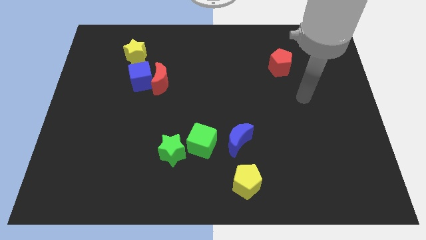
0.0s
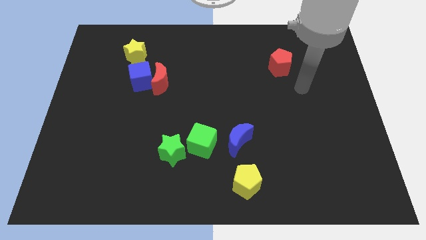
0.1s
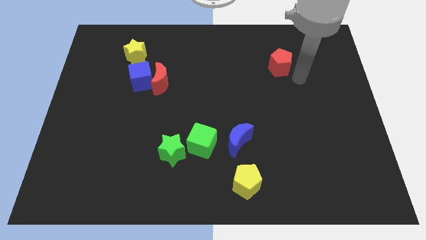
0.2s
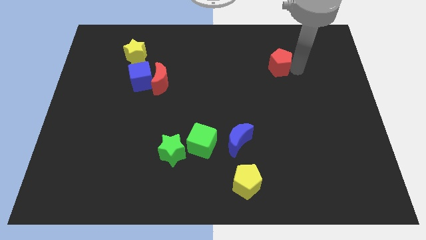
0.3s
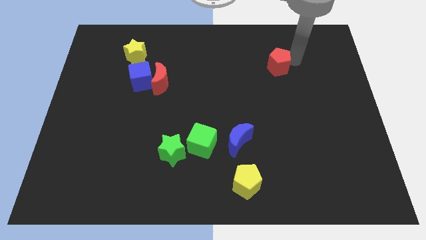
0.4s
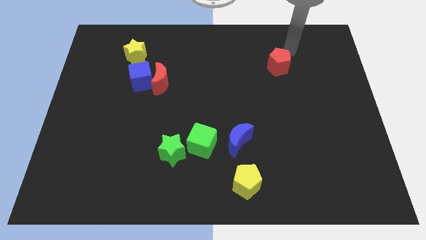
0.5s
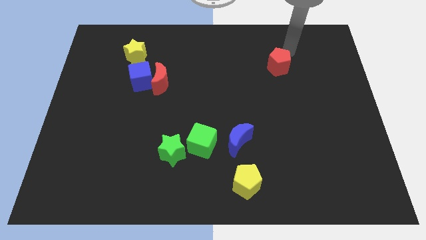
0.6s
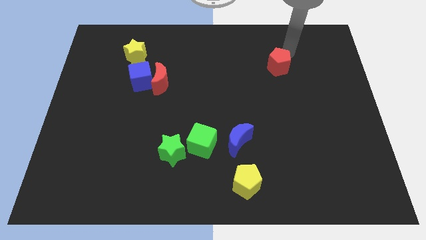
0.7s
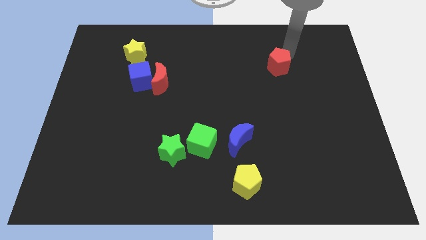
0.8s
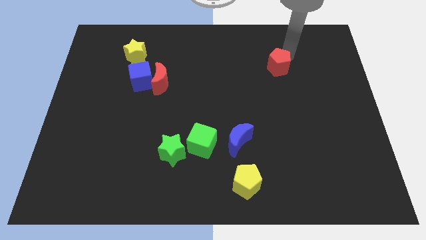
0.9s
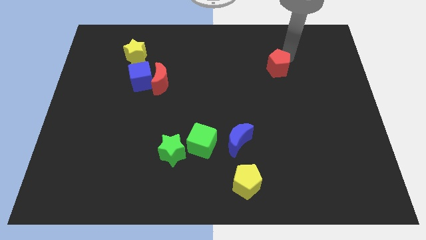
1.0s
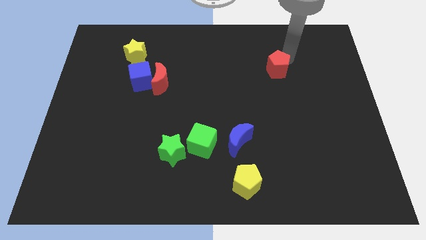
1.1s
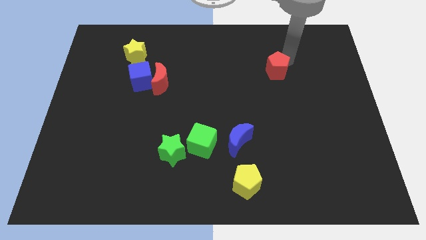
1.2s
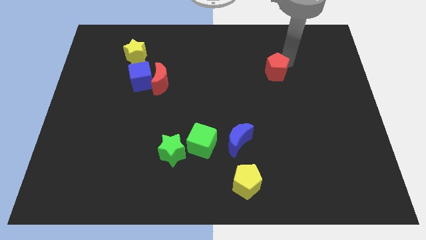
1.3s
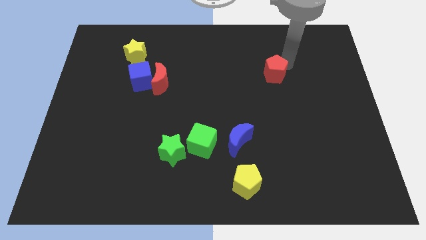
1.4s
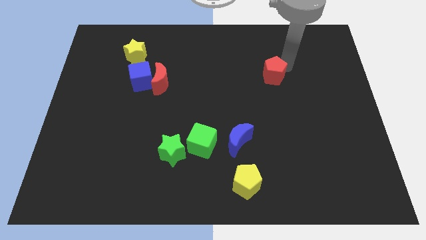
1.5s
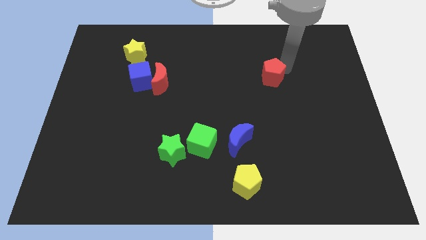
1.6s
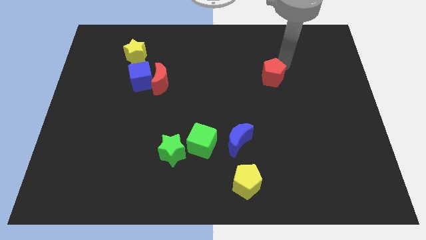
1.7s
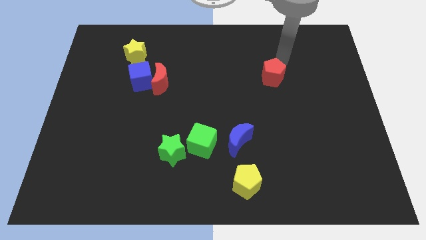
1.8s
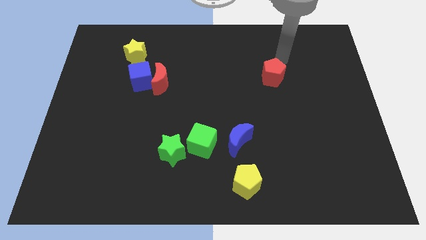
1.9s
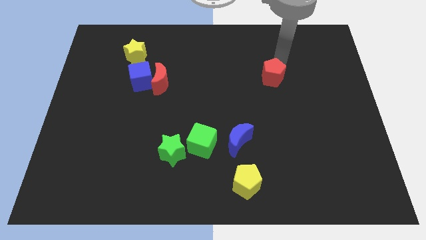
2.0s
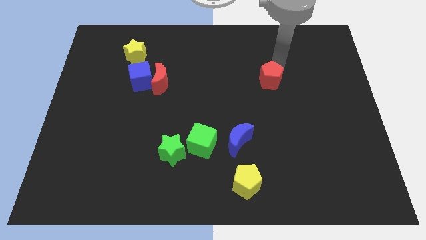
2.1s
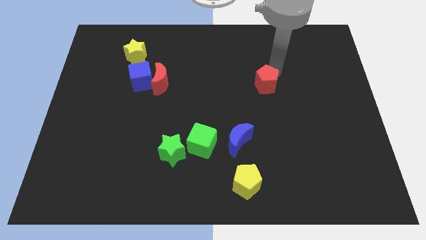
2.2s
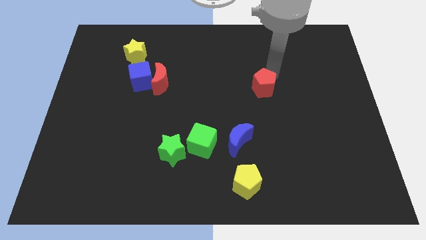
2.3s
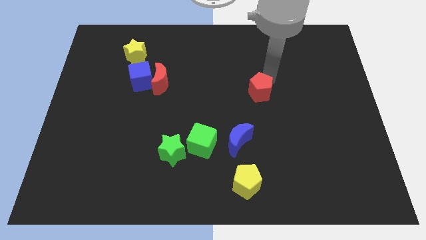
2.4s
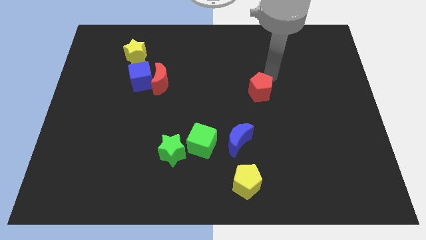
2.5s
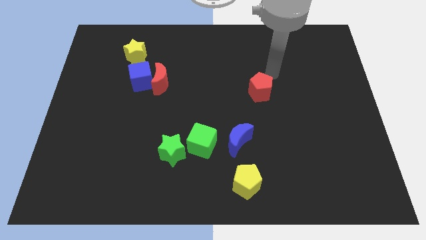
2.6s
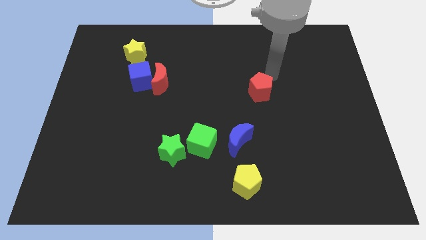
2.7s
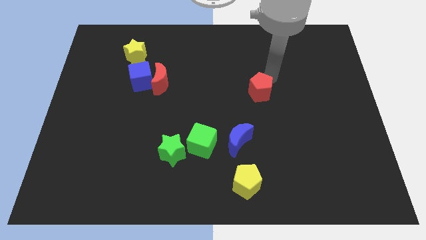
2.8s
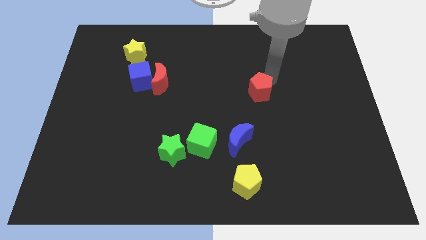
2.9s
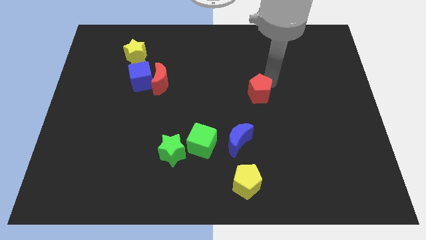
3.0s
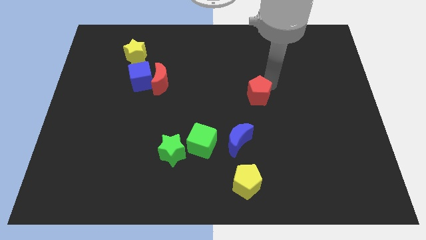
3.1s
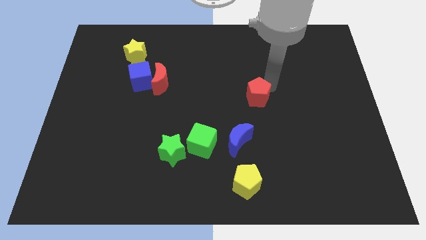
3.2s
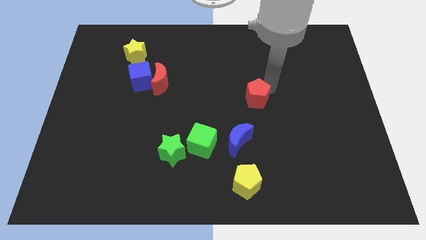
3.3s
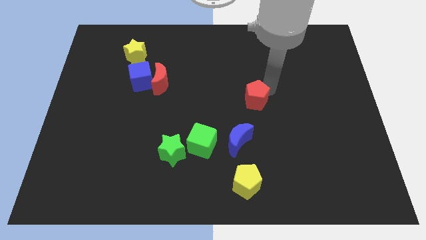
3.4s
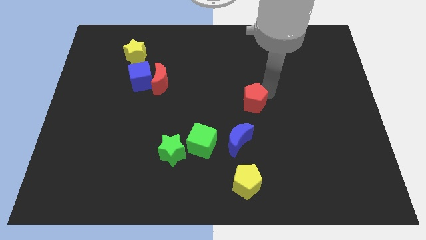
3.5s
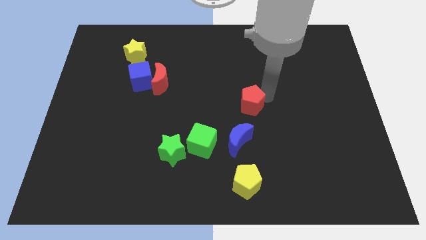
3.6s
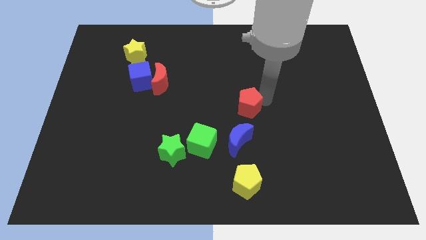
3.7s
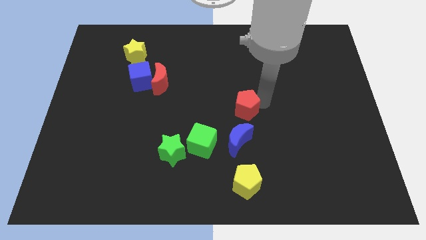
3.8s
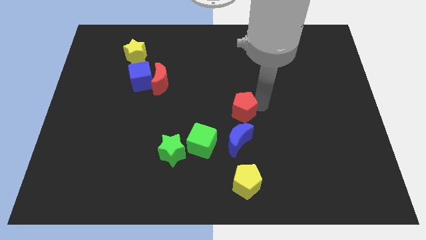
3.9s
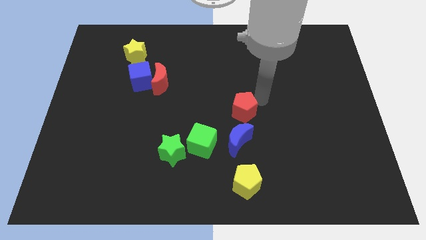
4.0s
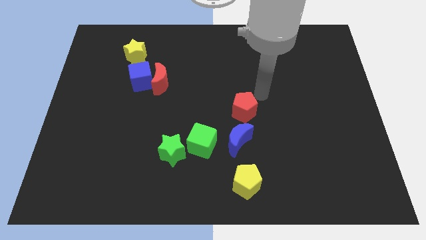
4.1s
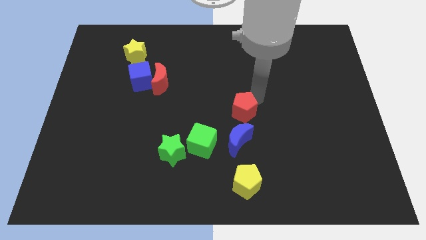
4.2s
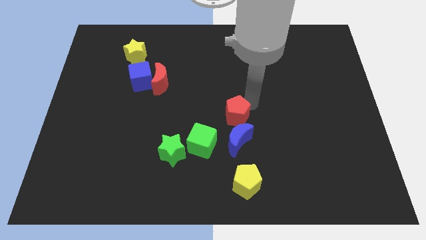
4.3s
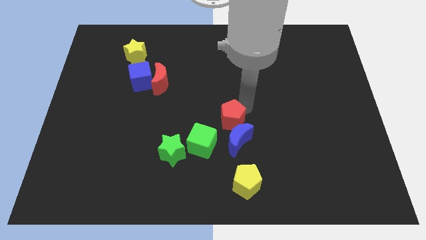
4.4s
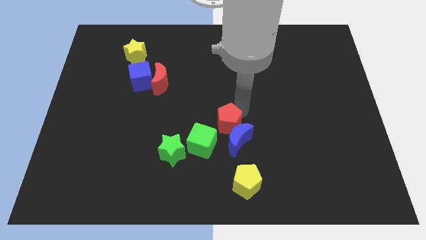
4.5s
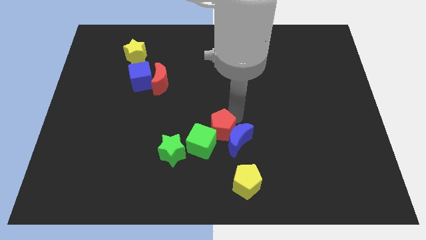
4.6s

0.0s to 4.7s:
push the red pentagon close to the green cube

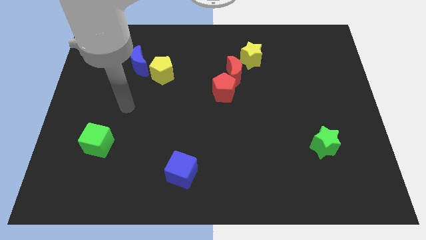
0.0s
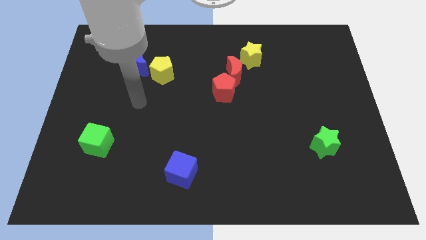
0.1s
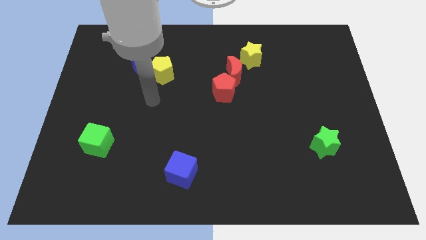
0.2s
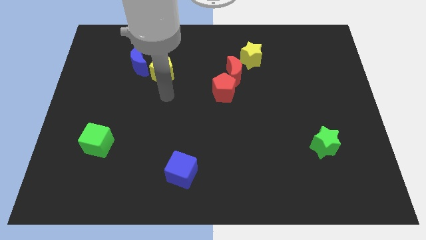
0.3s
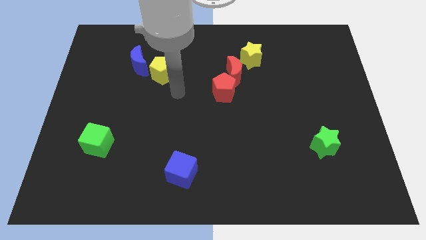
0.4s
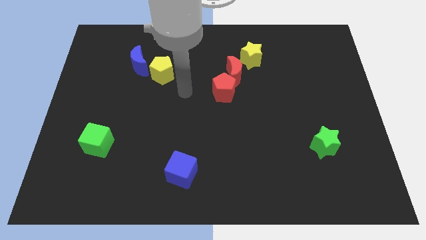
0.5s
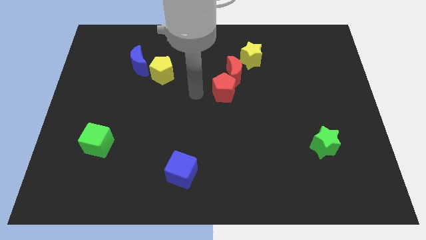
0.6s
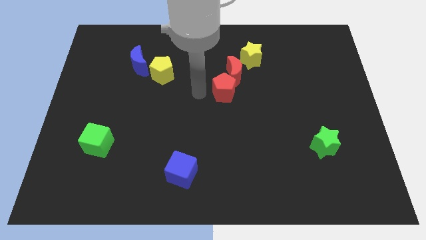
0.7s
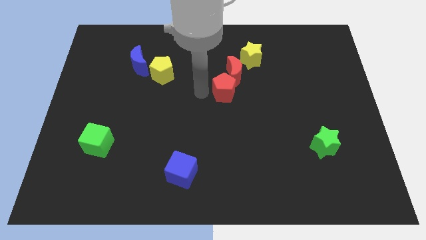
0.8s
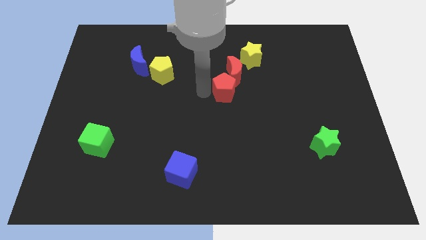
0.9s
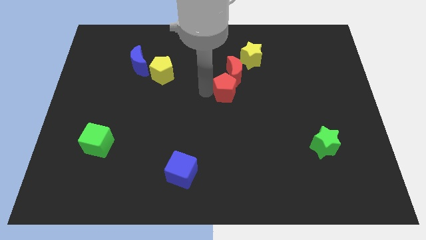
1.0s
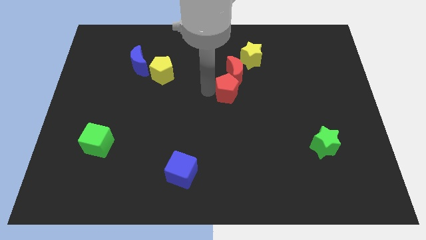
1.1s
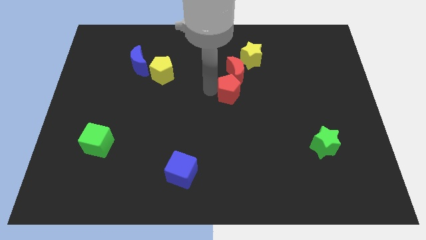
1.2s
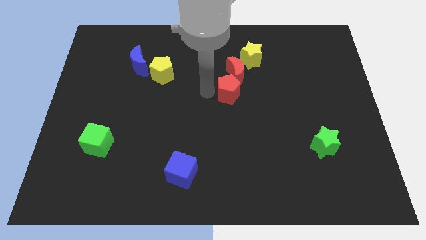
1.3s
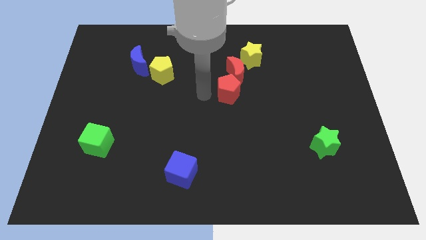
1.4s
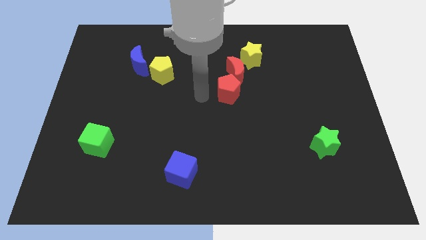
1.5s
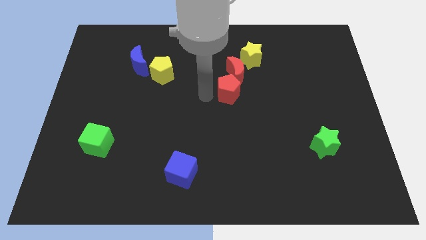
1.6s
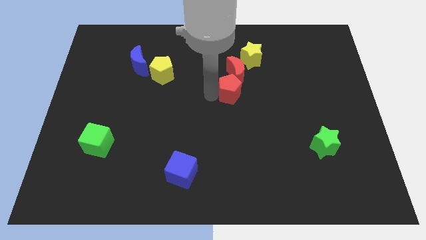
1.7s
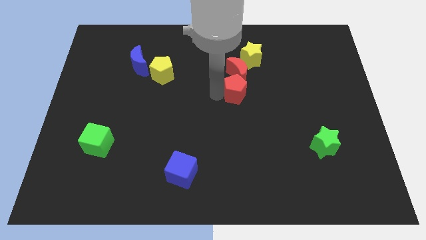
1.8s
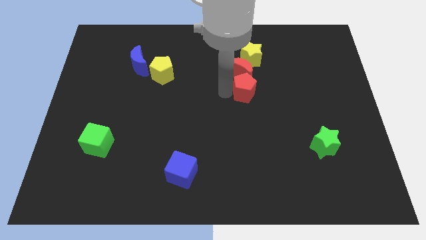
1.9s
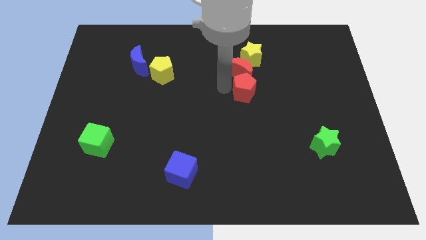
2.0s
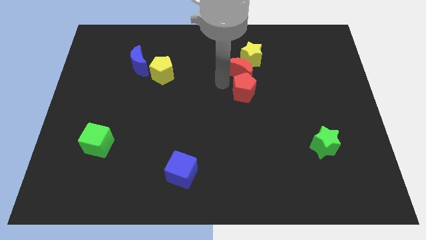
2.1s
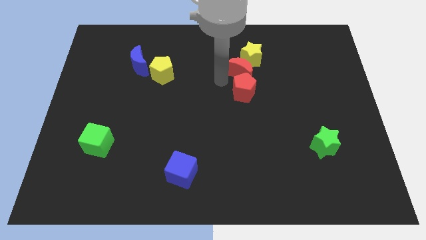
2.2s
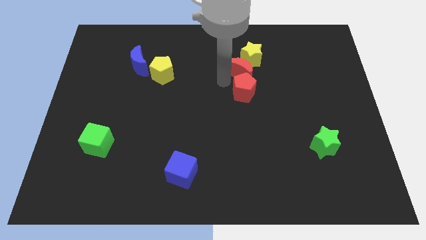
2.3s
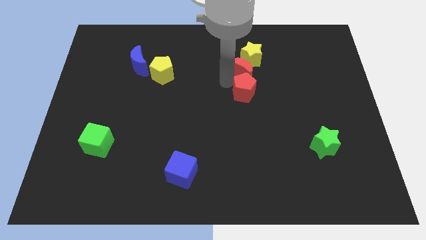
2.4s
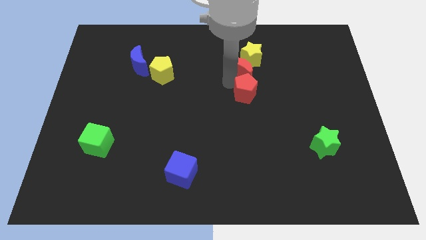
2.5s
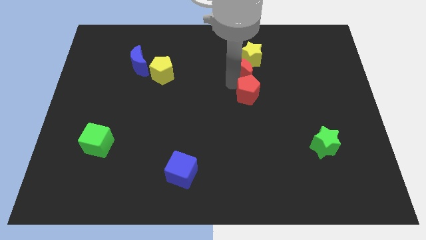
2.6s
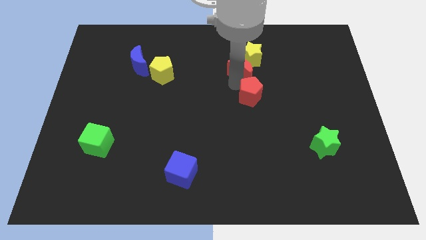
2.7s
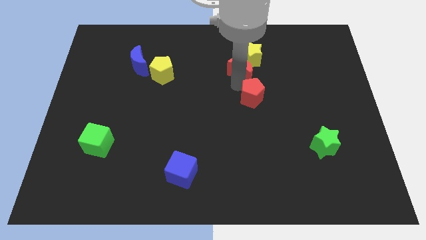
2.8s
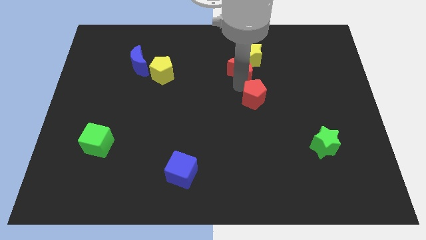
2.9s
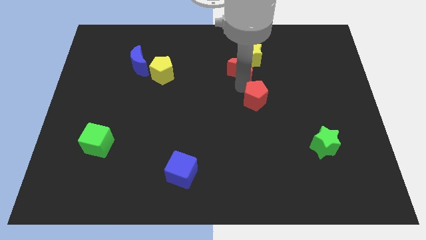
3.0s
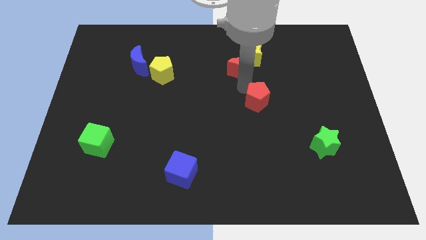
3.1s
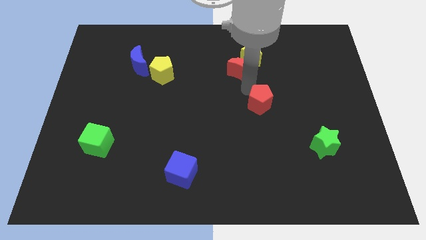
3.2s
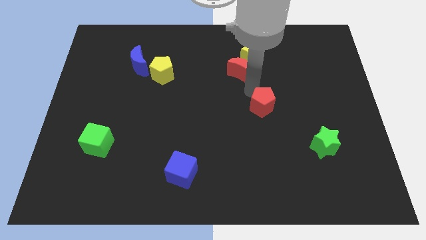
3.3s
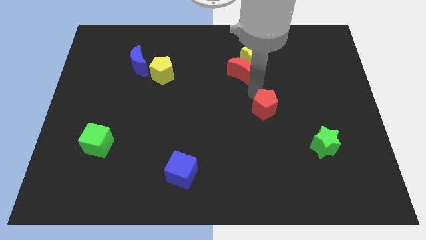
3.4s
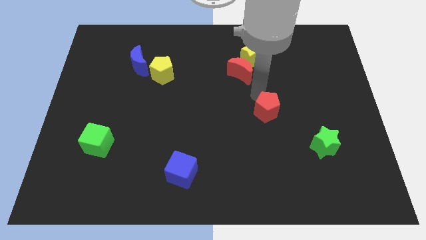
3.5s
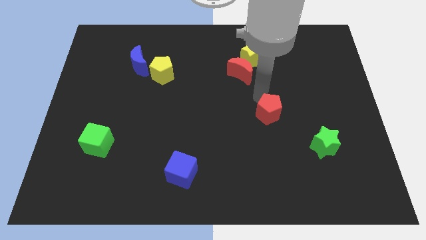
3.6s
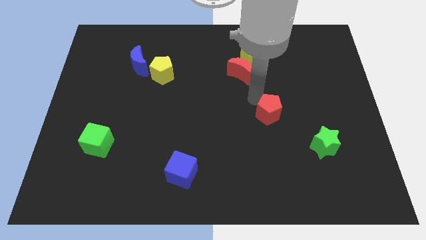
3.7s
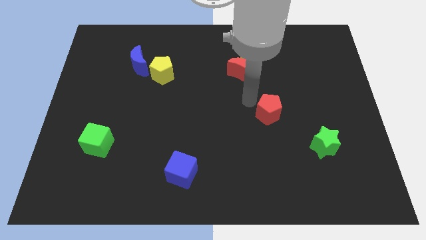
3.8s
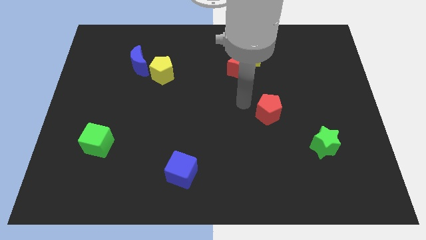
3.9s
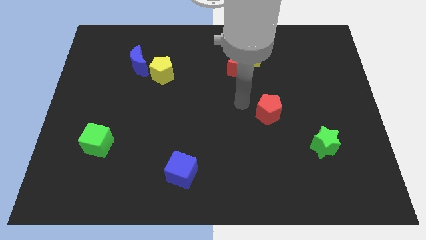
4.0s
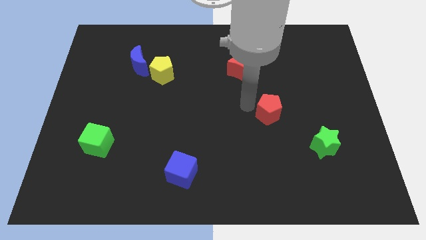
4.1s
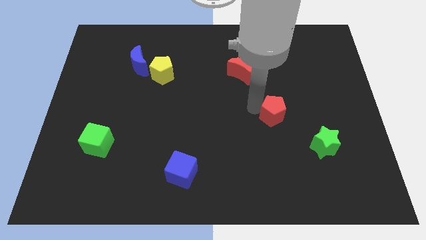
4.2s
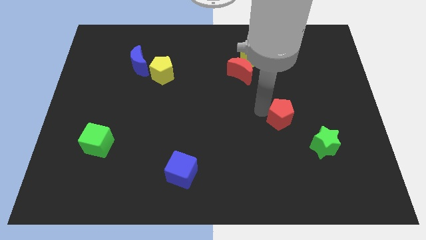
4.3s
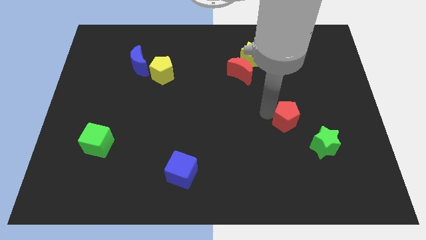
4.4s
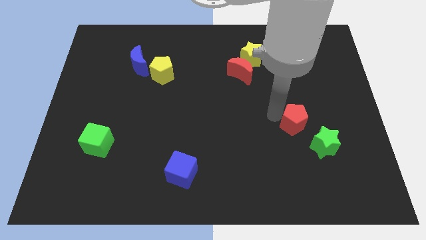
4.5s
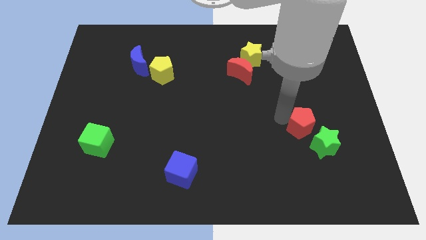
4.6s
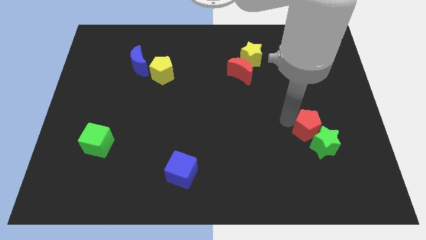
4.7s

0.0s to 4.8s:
move the red pentagon close to the green star
